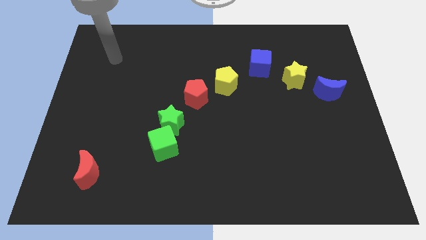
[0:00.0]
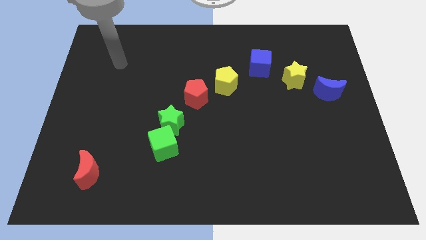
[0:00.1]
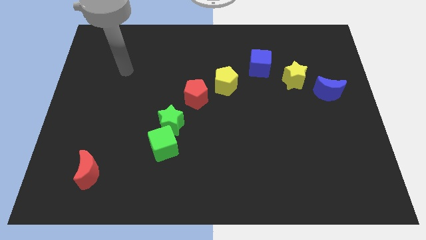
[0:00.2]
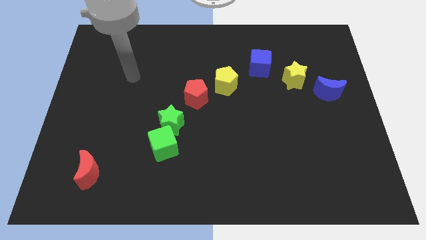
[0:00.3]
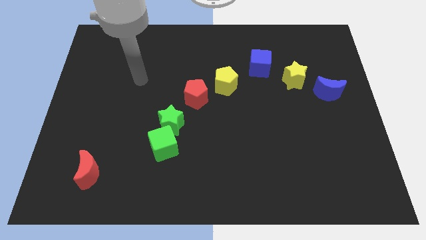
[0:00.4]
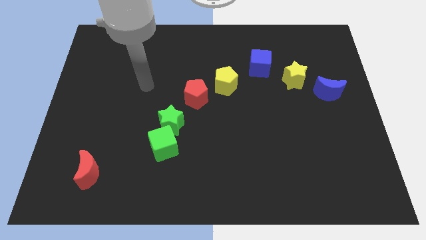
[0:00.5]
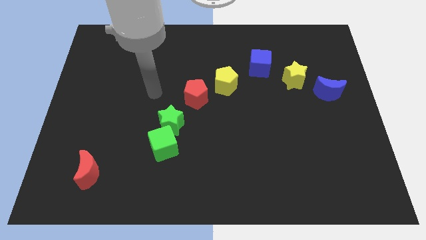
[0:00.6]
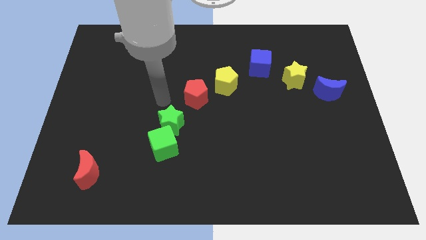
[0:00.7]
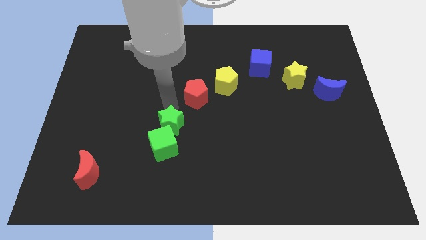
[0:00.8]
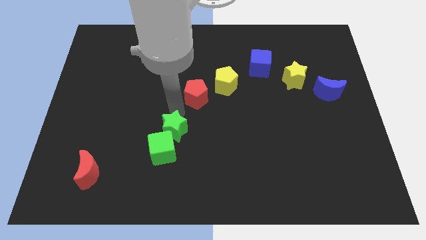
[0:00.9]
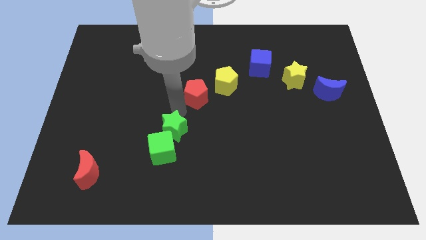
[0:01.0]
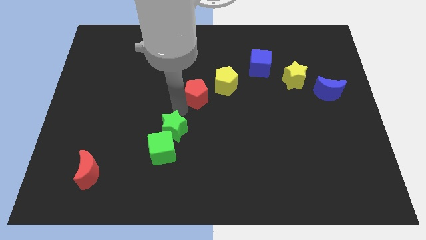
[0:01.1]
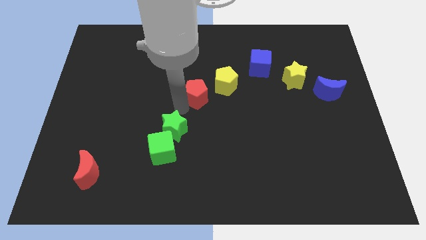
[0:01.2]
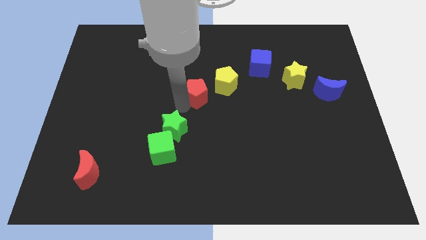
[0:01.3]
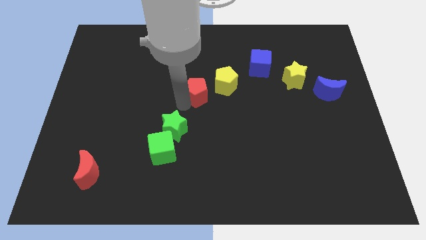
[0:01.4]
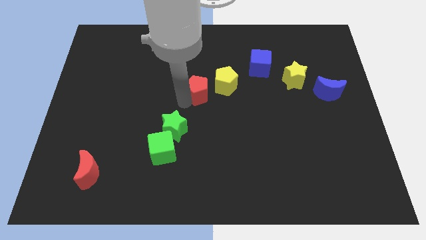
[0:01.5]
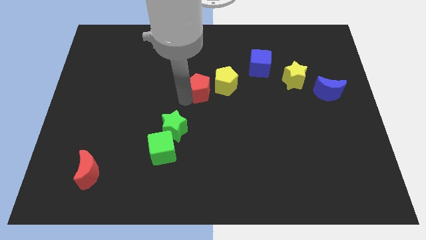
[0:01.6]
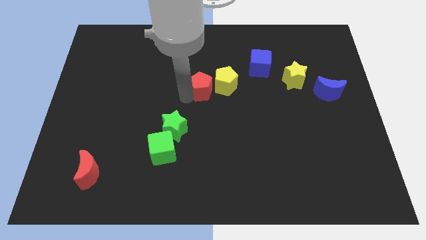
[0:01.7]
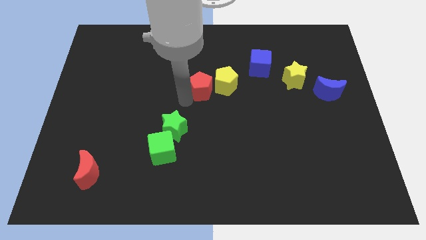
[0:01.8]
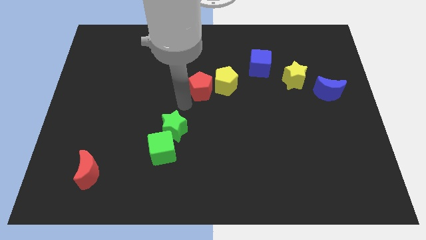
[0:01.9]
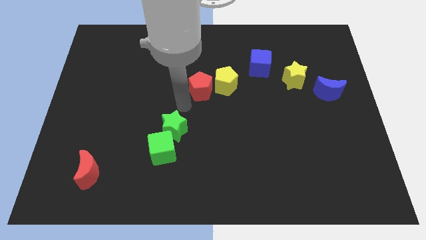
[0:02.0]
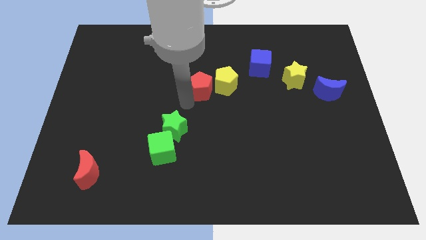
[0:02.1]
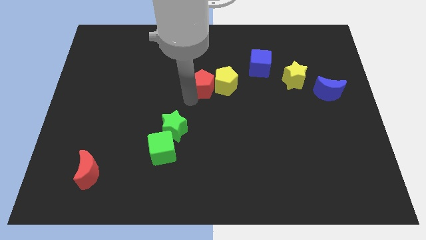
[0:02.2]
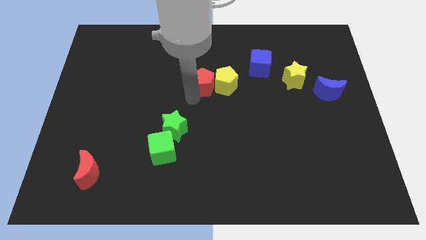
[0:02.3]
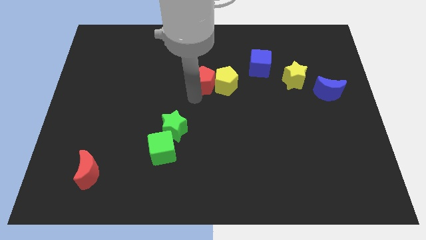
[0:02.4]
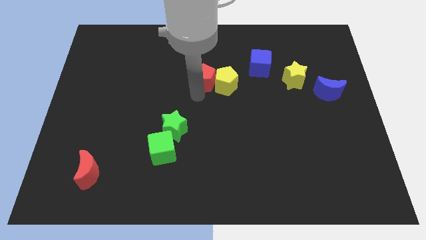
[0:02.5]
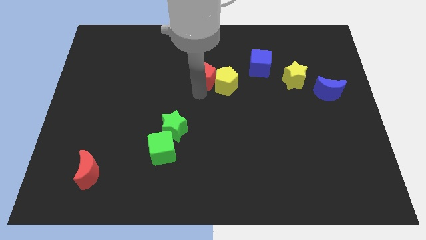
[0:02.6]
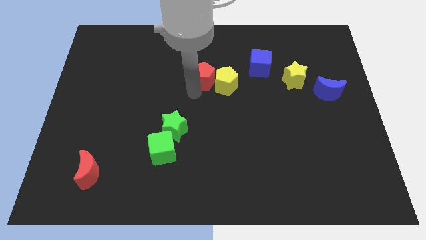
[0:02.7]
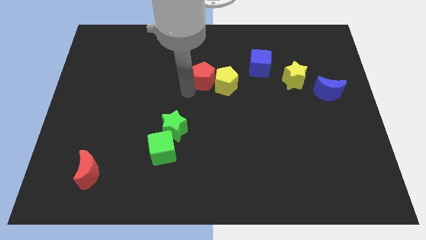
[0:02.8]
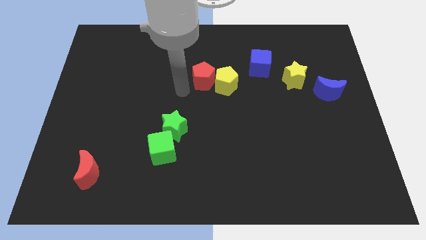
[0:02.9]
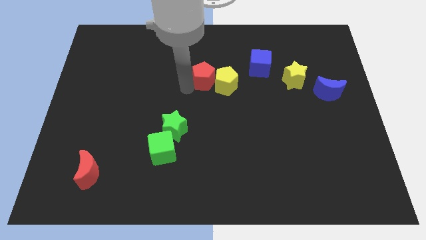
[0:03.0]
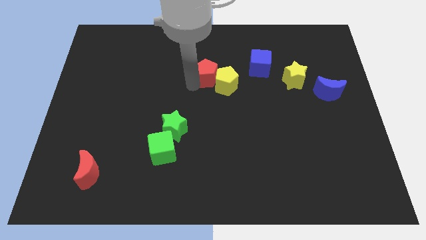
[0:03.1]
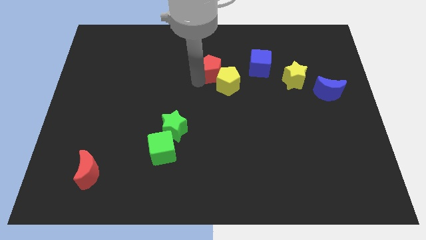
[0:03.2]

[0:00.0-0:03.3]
push the red pentagon upwards and then right a bit

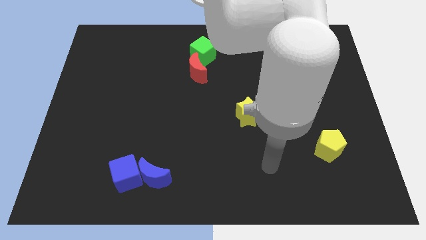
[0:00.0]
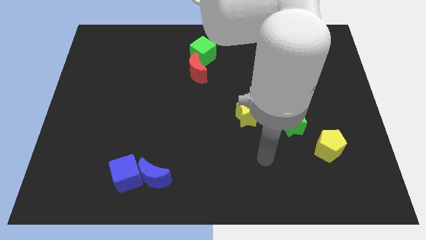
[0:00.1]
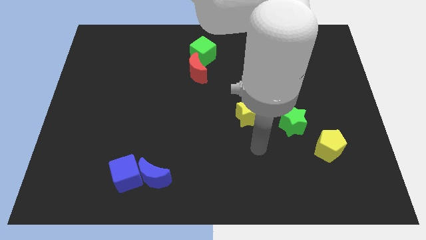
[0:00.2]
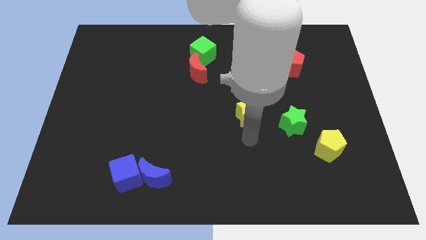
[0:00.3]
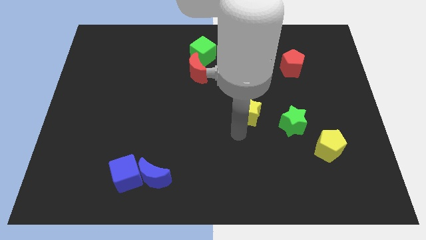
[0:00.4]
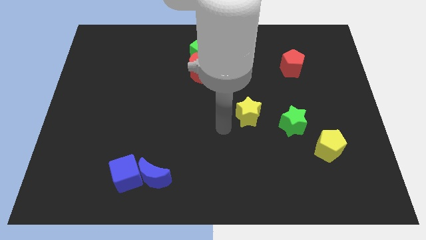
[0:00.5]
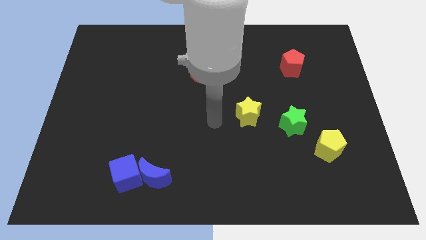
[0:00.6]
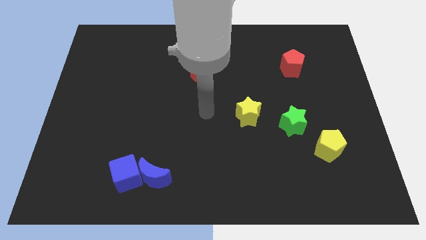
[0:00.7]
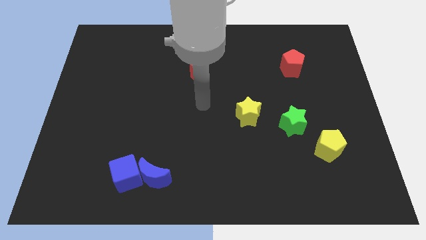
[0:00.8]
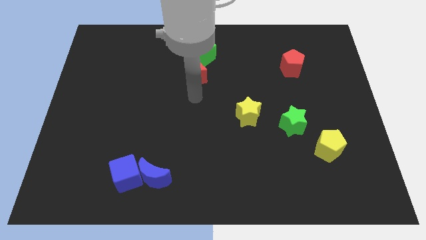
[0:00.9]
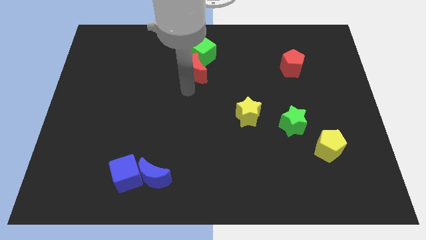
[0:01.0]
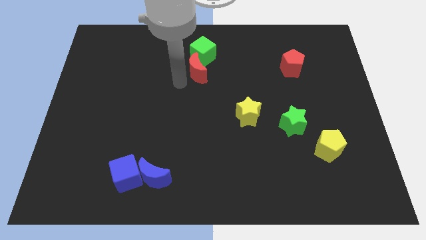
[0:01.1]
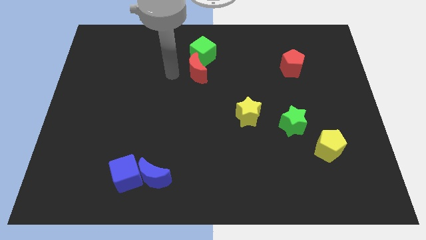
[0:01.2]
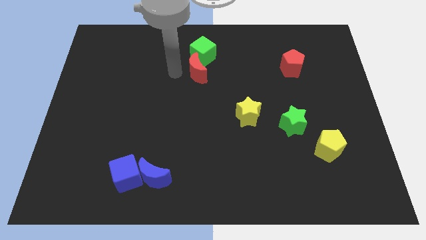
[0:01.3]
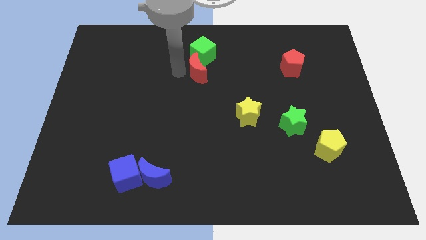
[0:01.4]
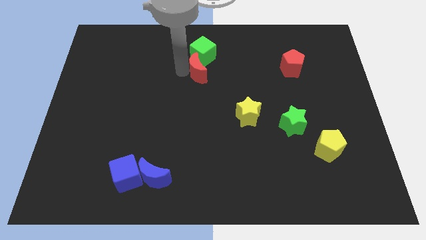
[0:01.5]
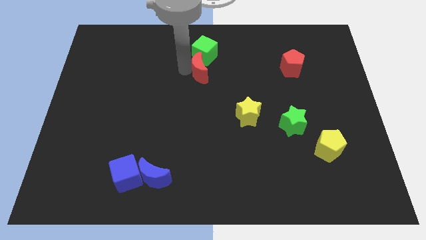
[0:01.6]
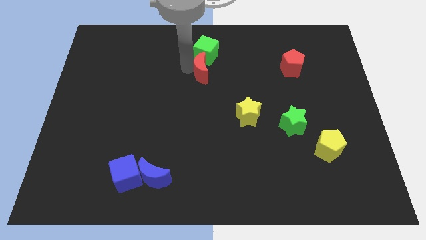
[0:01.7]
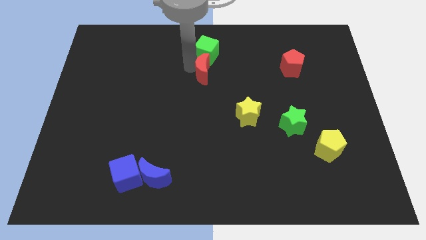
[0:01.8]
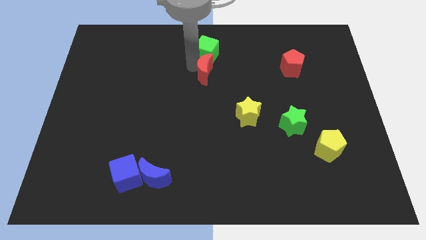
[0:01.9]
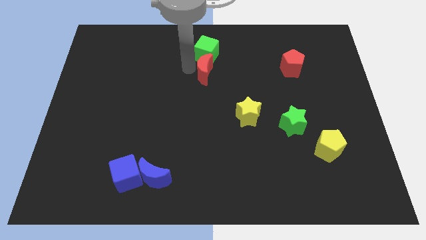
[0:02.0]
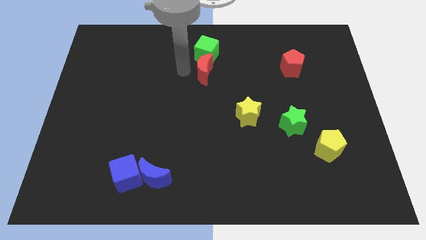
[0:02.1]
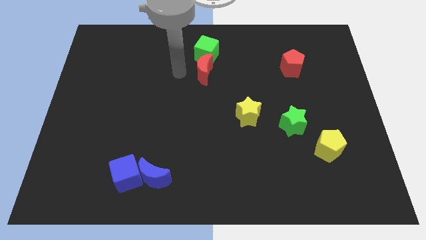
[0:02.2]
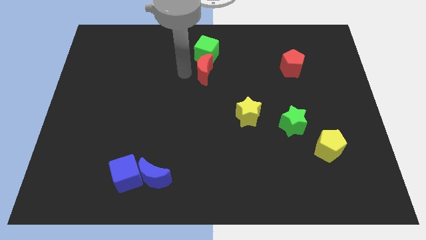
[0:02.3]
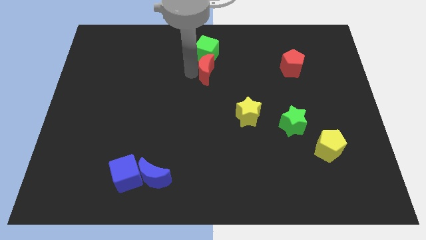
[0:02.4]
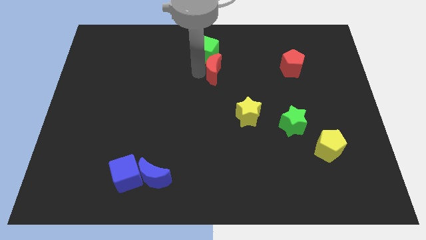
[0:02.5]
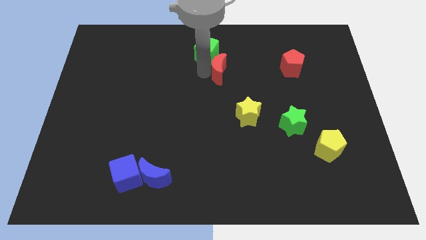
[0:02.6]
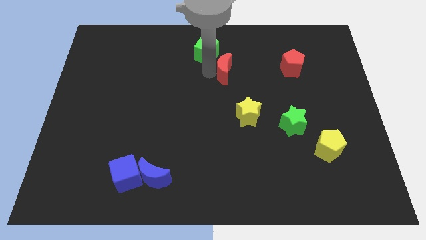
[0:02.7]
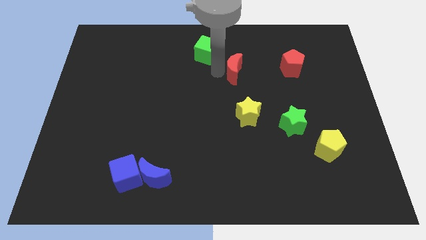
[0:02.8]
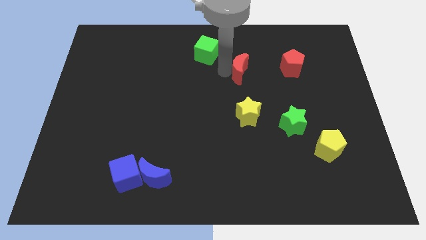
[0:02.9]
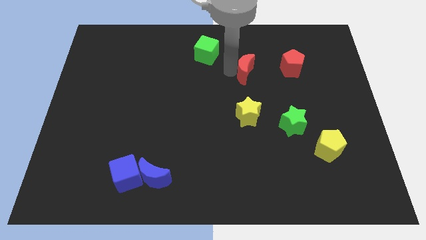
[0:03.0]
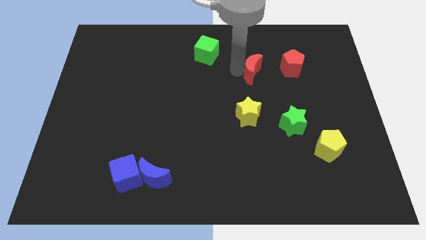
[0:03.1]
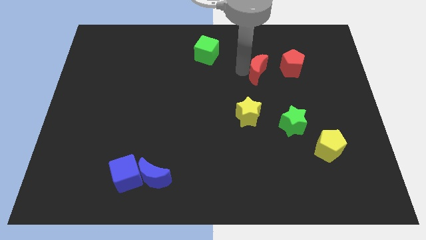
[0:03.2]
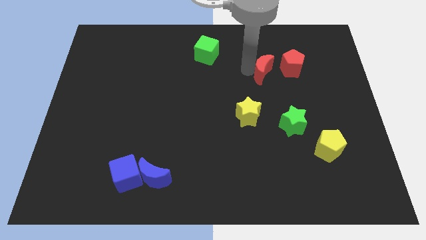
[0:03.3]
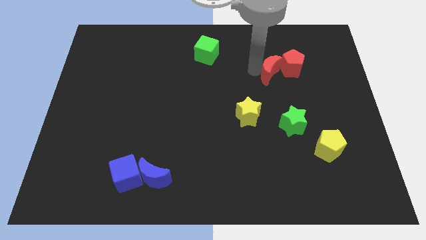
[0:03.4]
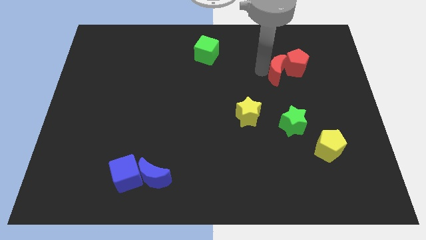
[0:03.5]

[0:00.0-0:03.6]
slide the red moon right

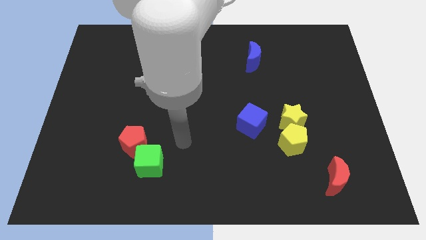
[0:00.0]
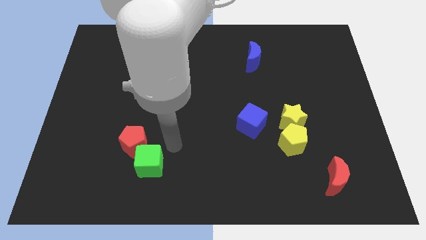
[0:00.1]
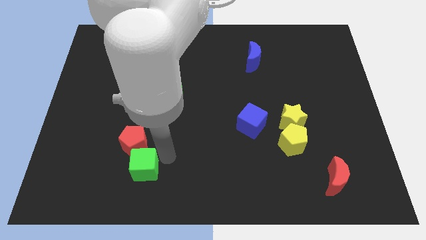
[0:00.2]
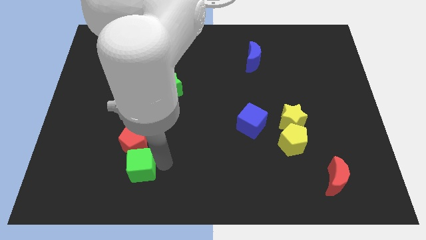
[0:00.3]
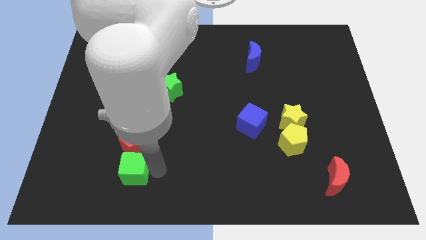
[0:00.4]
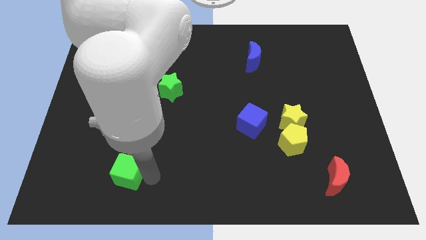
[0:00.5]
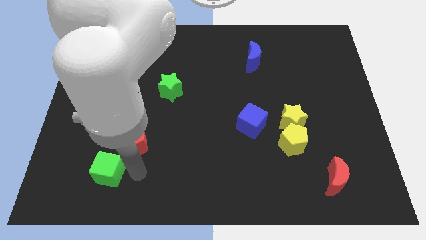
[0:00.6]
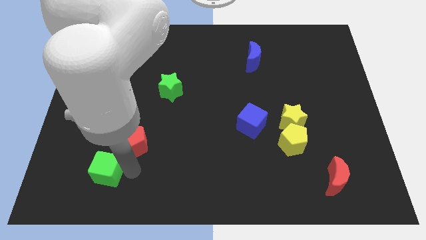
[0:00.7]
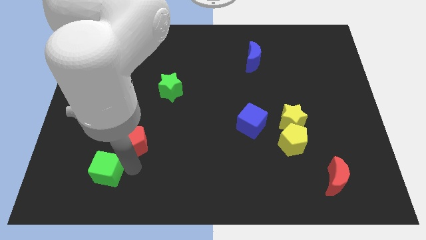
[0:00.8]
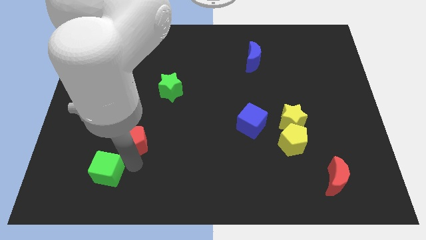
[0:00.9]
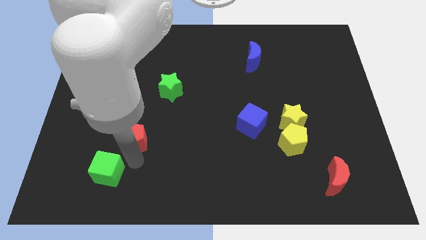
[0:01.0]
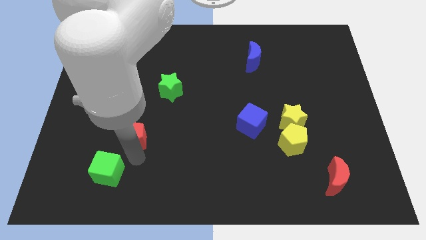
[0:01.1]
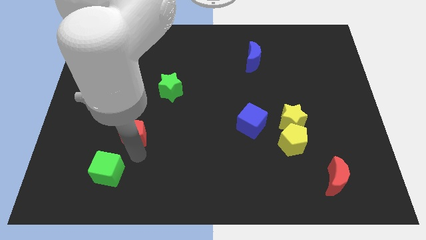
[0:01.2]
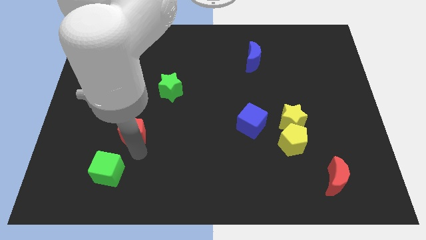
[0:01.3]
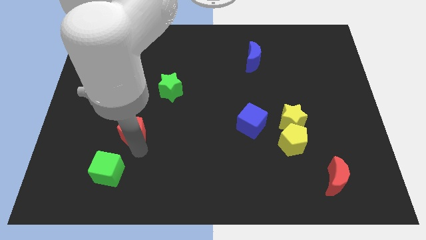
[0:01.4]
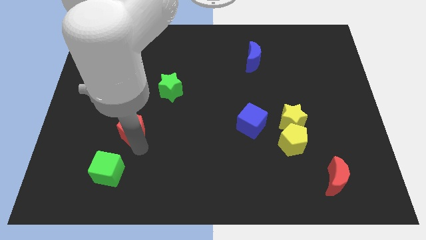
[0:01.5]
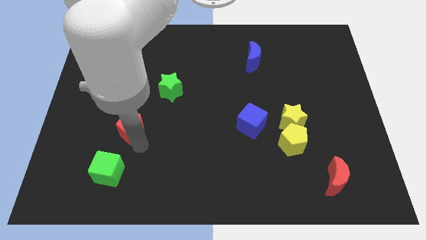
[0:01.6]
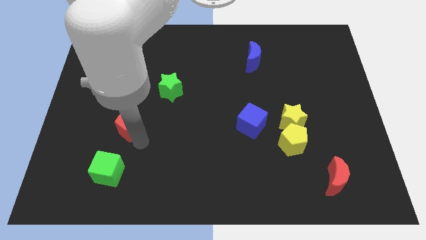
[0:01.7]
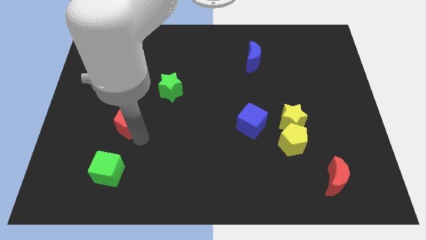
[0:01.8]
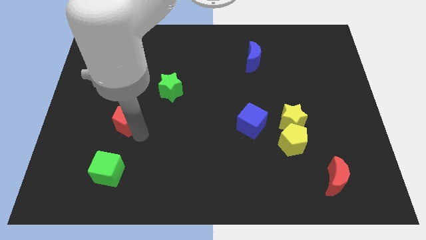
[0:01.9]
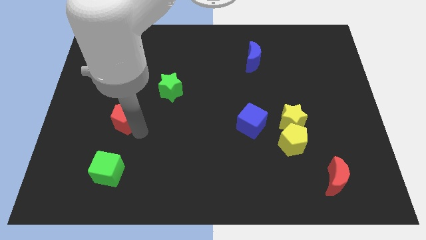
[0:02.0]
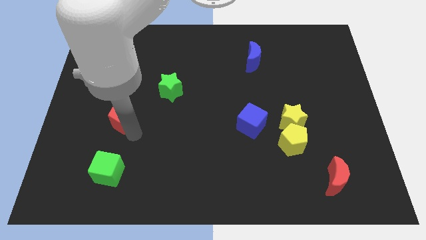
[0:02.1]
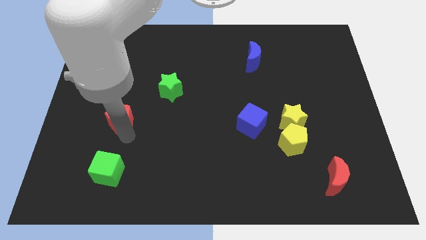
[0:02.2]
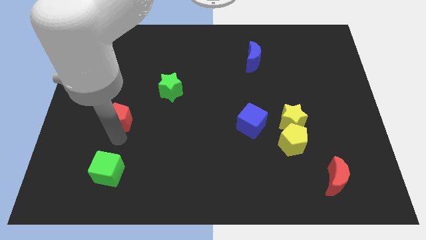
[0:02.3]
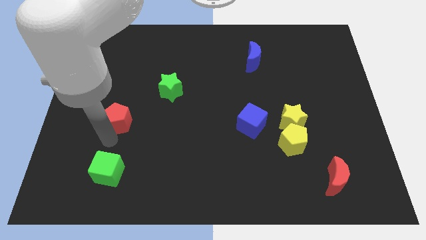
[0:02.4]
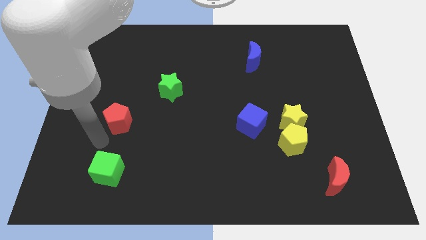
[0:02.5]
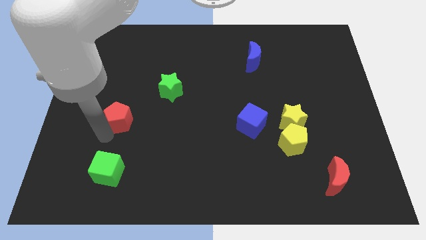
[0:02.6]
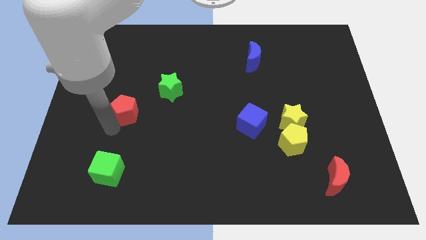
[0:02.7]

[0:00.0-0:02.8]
push the red pentagon upwards a little bit
